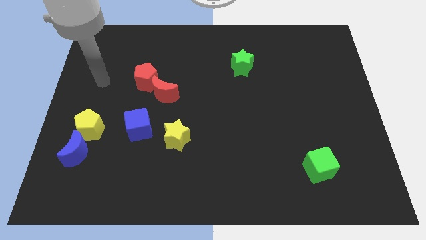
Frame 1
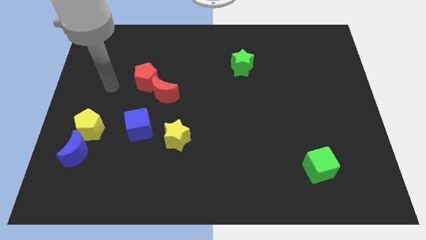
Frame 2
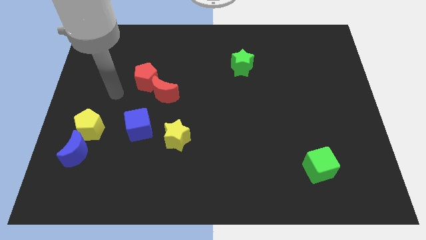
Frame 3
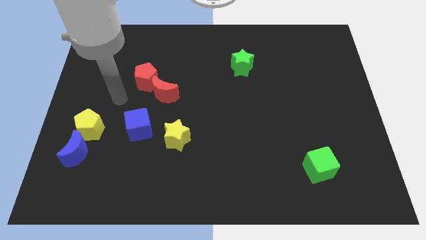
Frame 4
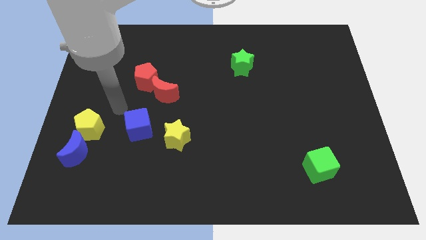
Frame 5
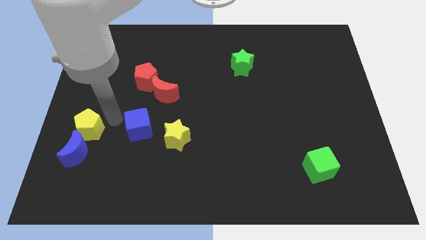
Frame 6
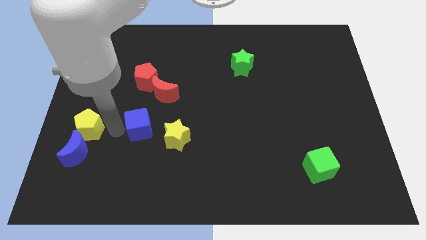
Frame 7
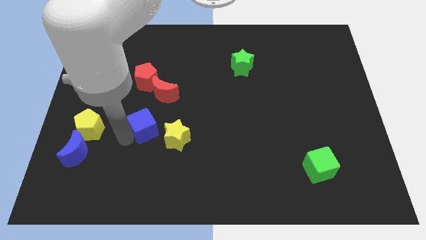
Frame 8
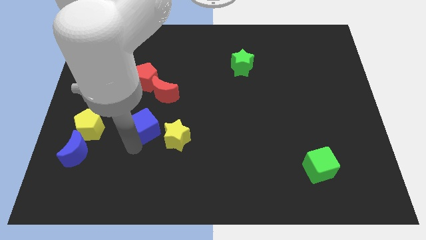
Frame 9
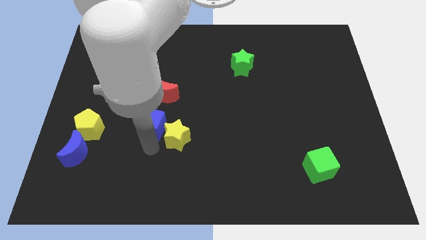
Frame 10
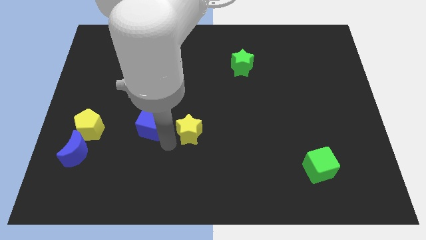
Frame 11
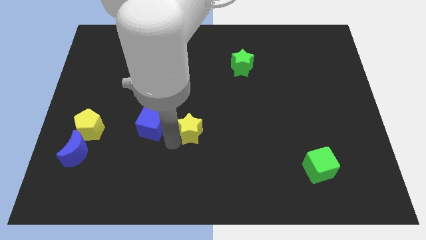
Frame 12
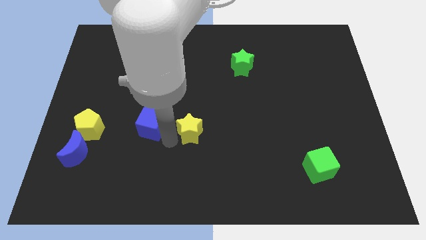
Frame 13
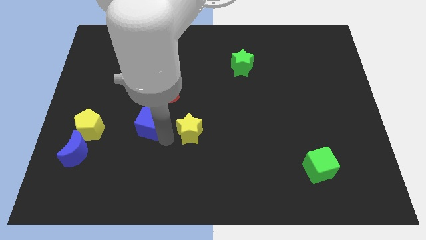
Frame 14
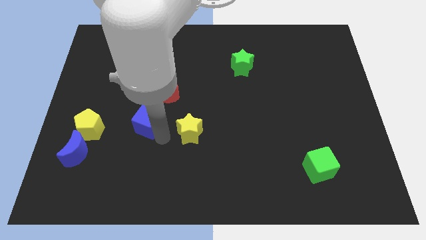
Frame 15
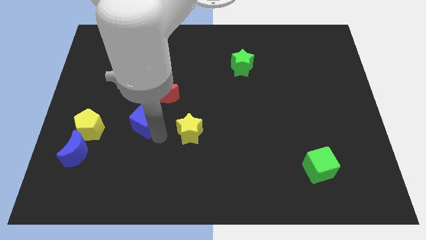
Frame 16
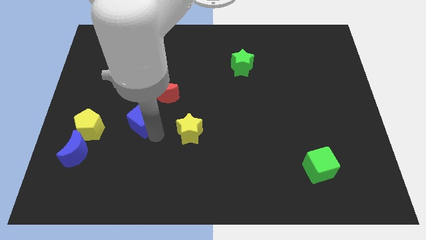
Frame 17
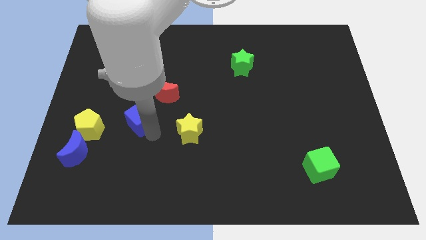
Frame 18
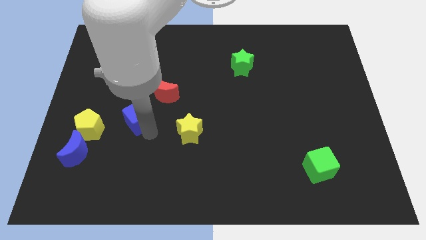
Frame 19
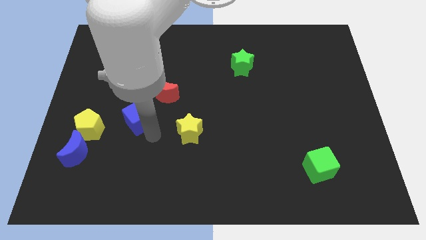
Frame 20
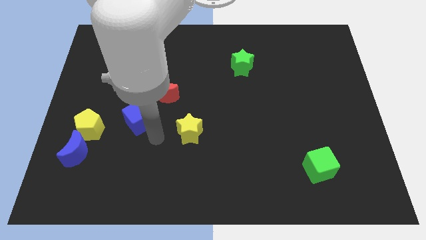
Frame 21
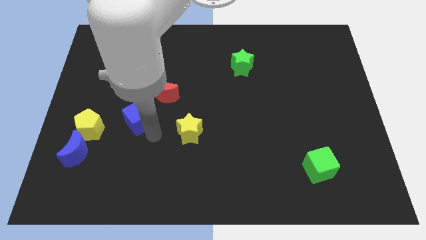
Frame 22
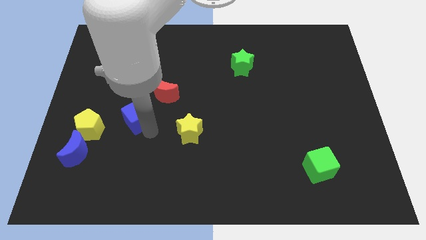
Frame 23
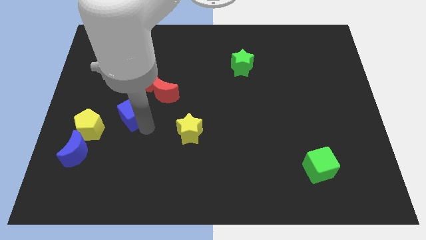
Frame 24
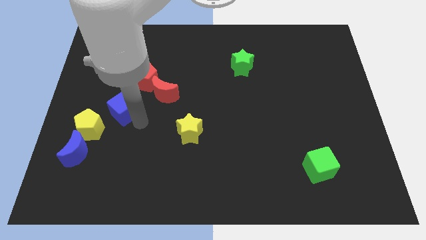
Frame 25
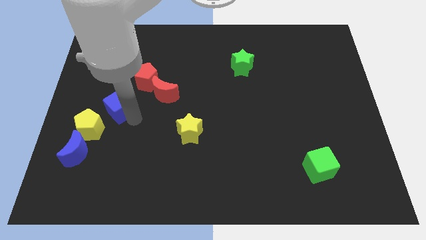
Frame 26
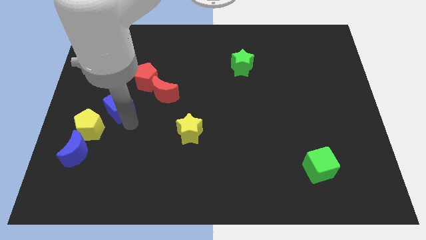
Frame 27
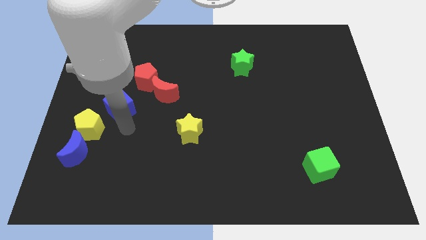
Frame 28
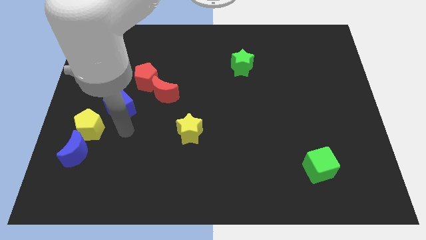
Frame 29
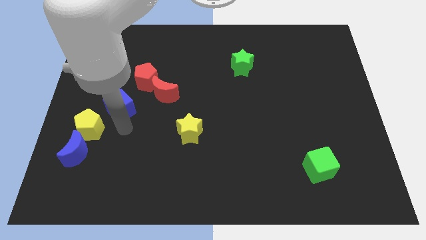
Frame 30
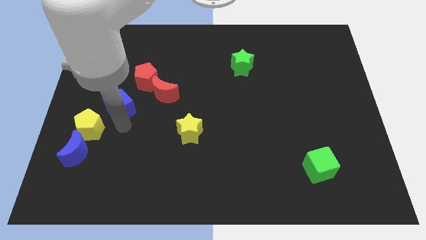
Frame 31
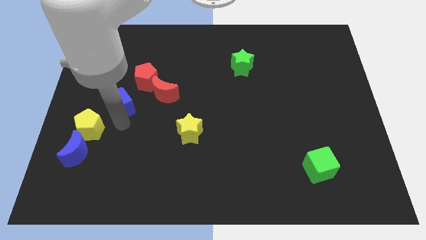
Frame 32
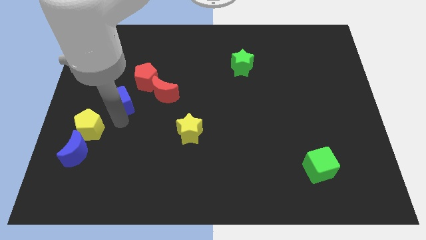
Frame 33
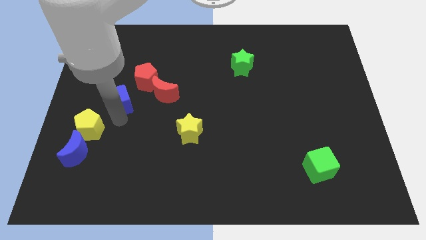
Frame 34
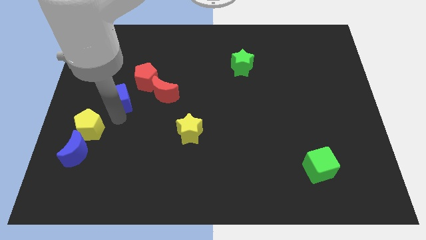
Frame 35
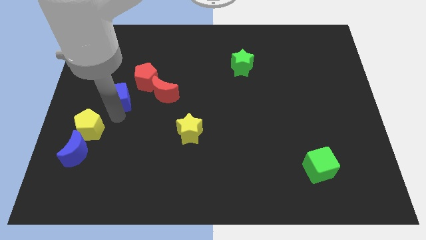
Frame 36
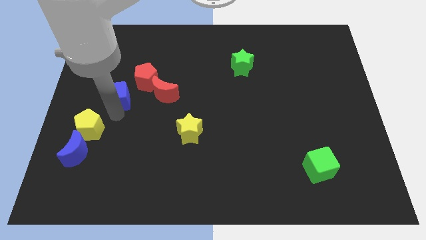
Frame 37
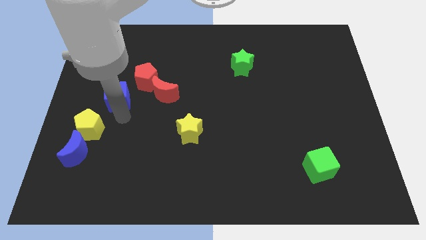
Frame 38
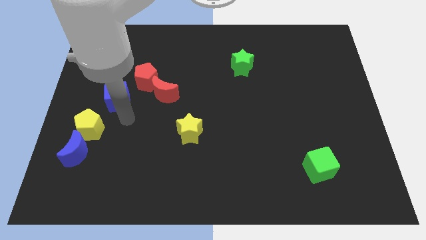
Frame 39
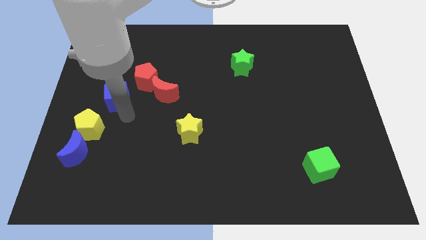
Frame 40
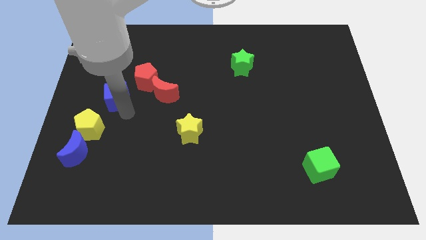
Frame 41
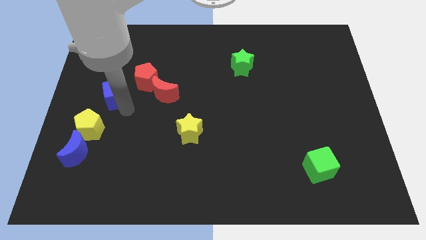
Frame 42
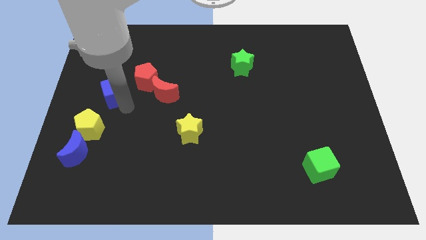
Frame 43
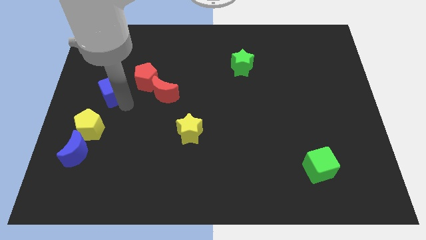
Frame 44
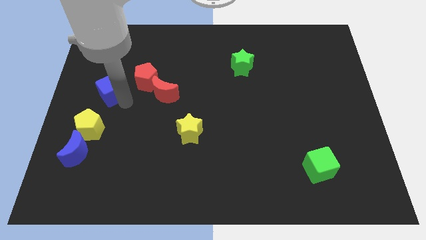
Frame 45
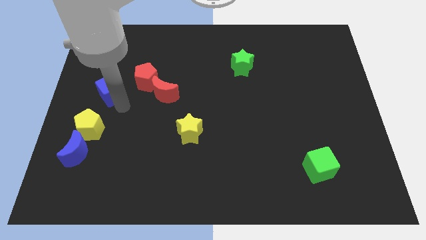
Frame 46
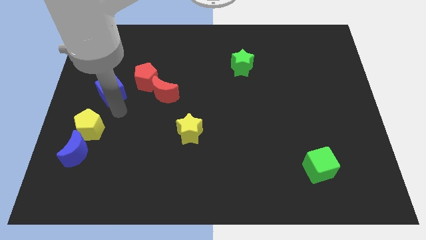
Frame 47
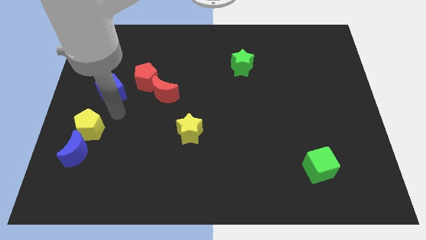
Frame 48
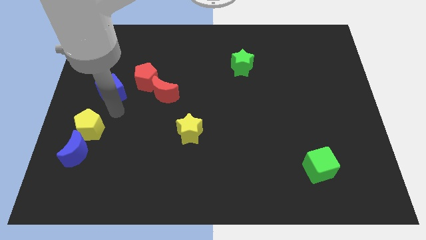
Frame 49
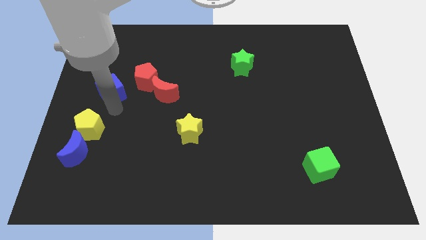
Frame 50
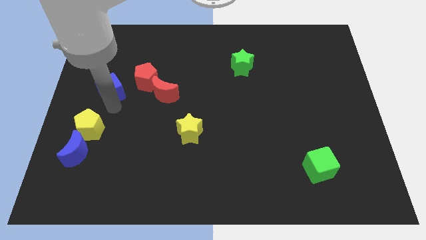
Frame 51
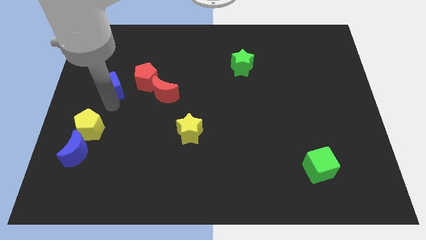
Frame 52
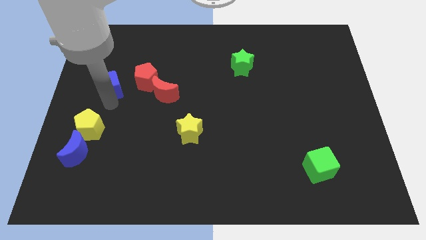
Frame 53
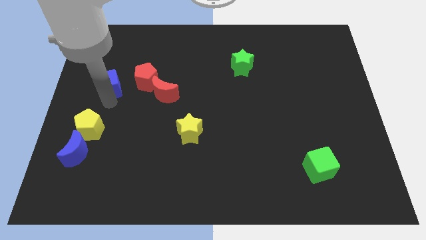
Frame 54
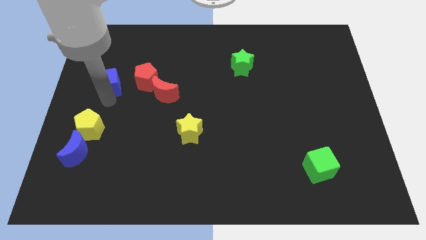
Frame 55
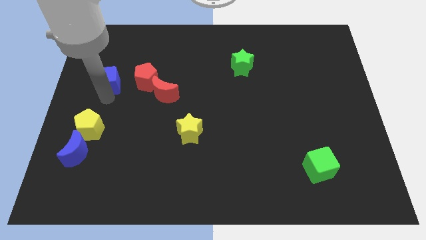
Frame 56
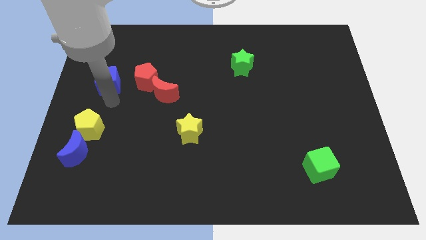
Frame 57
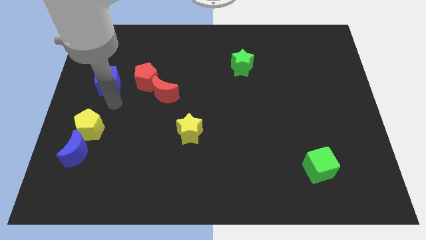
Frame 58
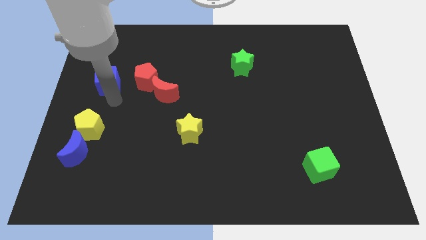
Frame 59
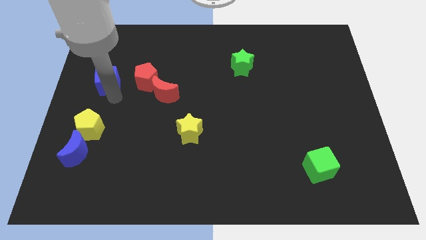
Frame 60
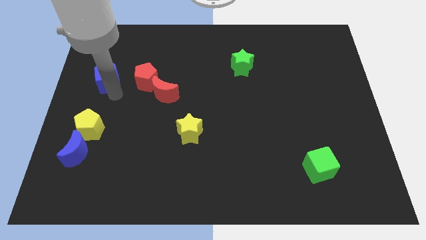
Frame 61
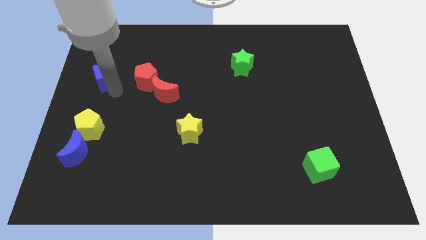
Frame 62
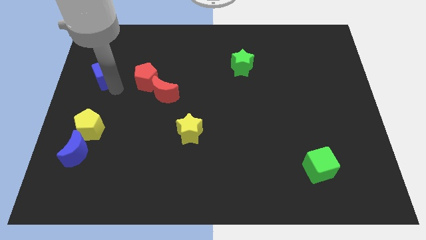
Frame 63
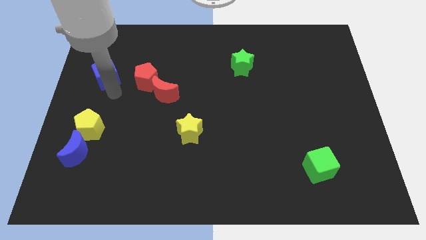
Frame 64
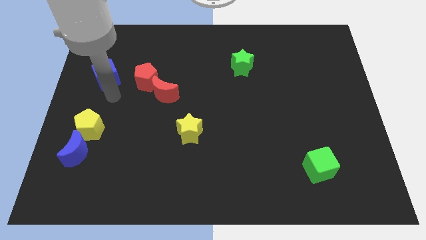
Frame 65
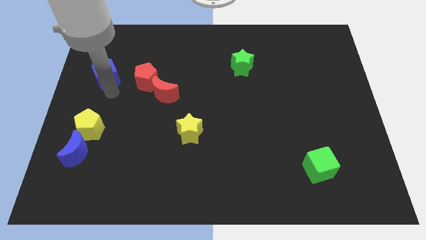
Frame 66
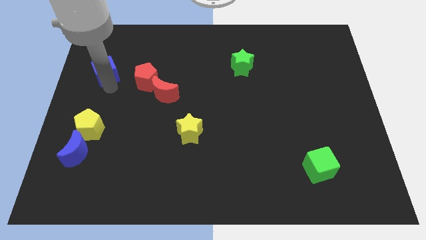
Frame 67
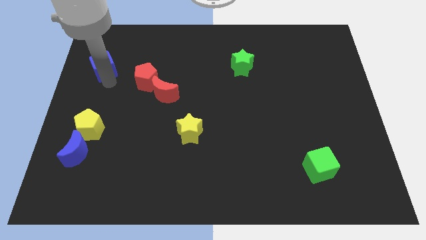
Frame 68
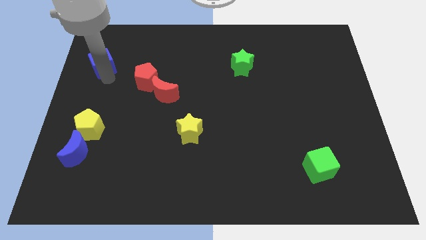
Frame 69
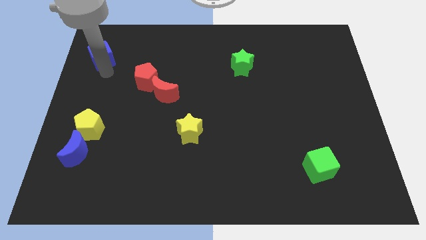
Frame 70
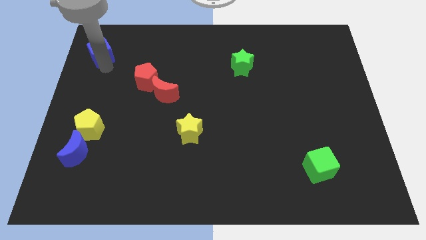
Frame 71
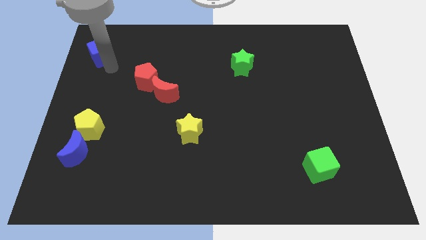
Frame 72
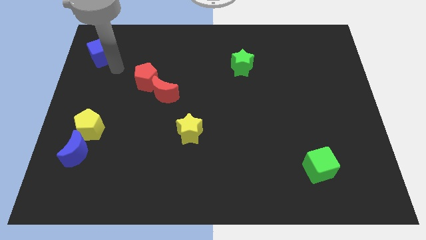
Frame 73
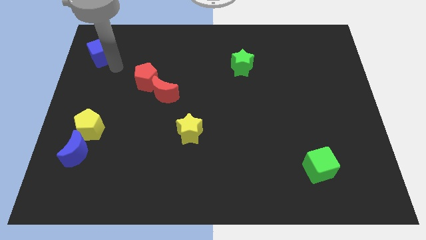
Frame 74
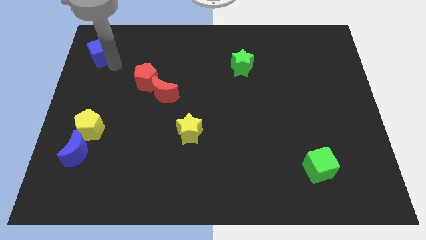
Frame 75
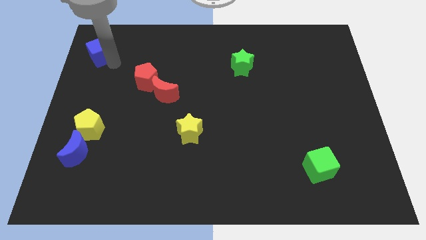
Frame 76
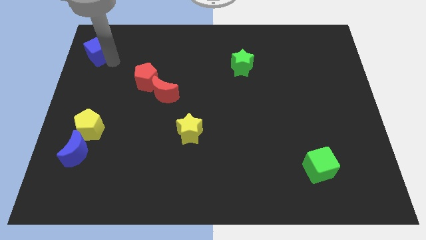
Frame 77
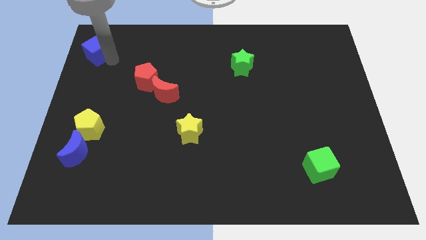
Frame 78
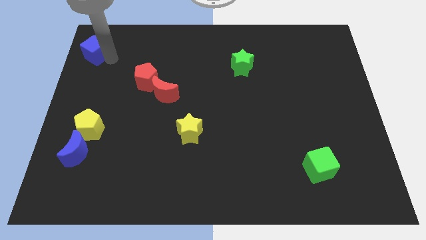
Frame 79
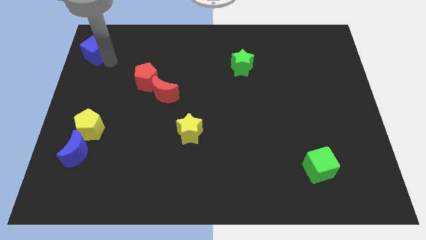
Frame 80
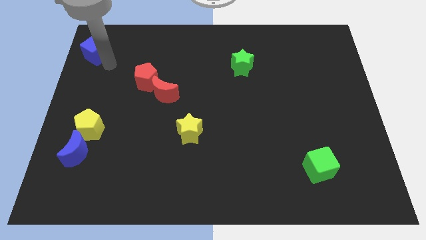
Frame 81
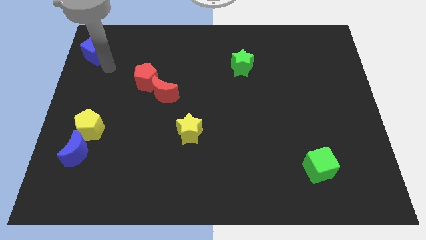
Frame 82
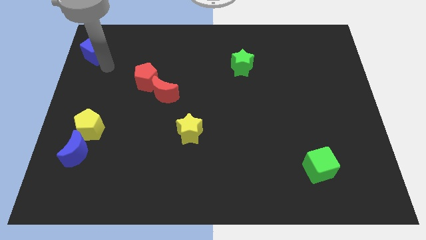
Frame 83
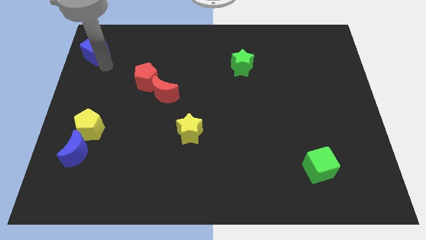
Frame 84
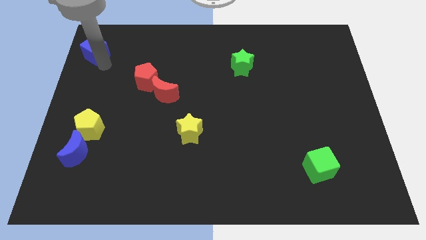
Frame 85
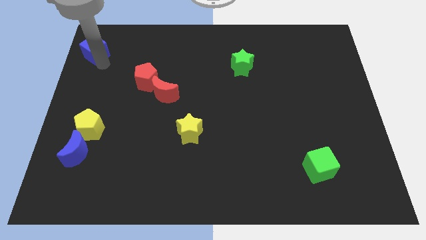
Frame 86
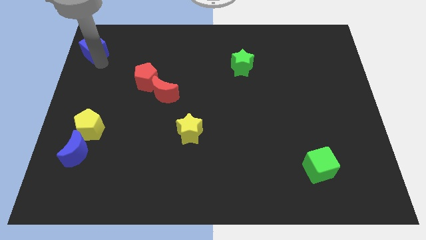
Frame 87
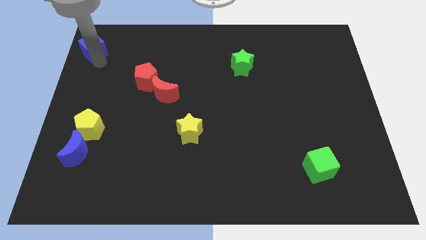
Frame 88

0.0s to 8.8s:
slide the blue cube to the top left
